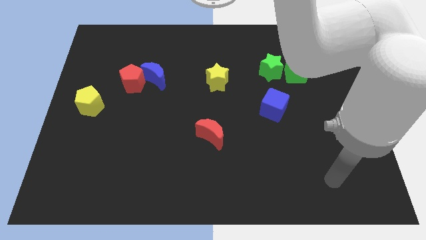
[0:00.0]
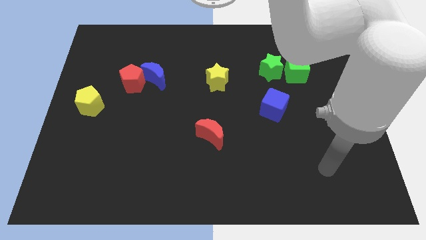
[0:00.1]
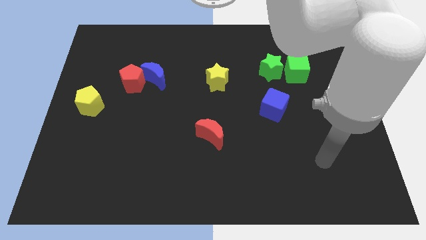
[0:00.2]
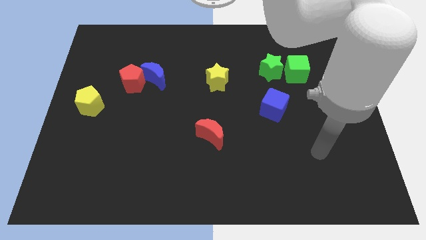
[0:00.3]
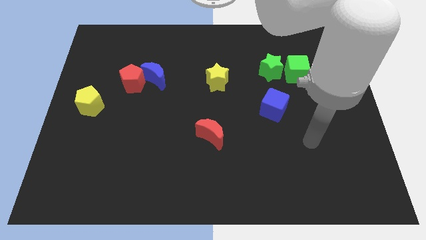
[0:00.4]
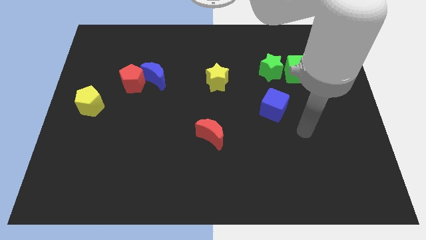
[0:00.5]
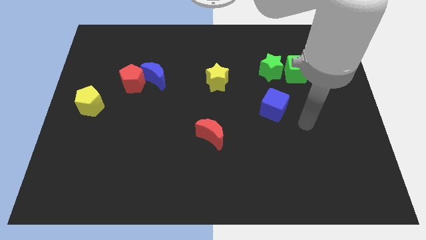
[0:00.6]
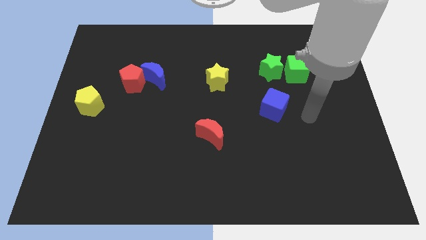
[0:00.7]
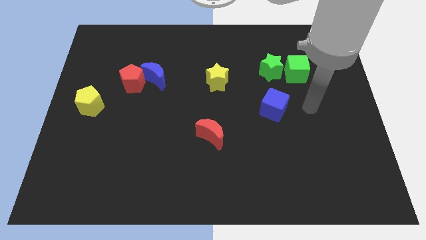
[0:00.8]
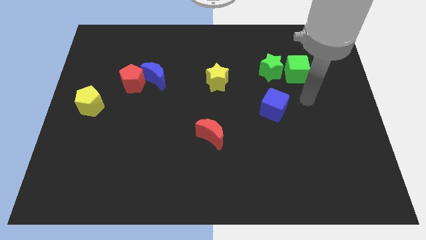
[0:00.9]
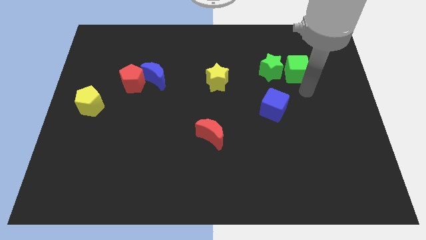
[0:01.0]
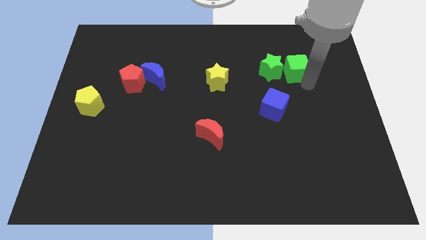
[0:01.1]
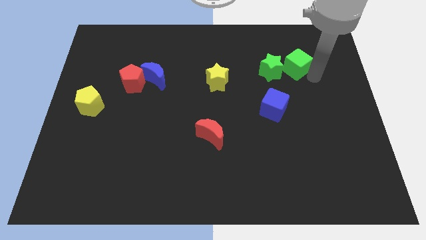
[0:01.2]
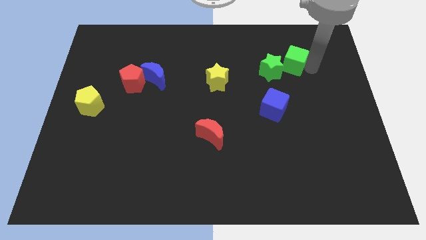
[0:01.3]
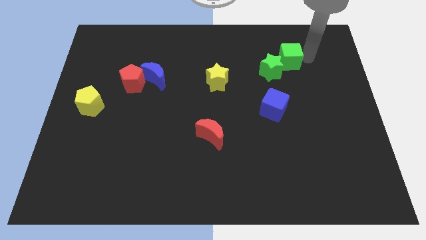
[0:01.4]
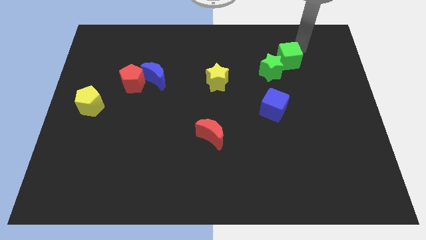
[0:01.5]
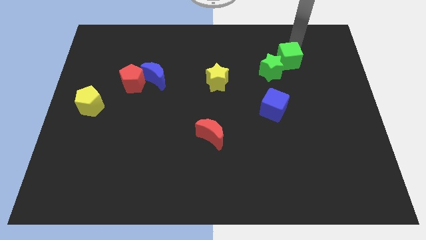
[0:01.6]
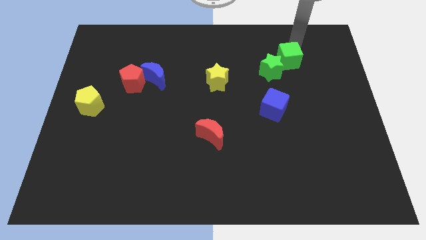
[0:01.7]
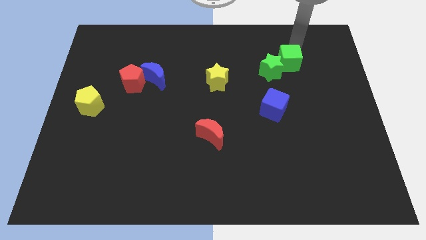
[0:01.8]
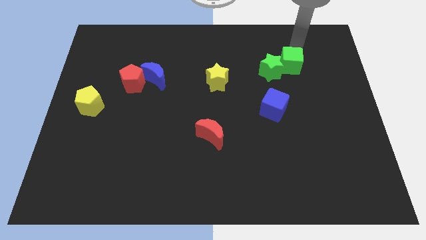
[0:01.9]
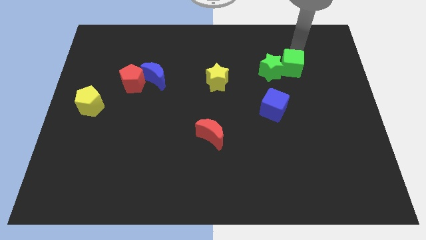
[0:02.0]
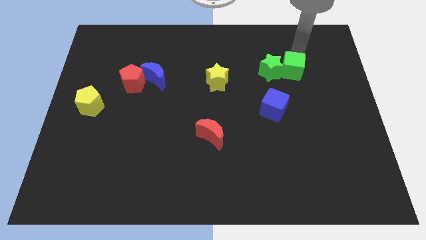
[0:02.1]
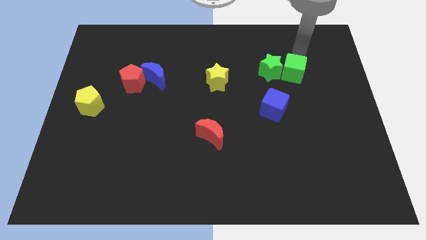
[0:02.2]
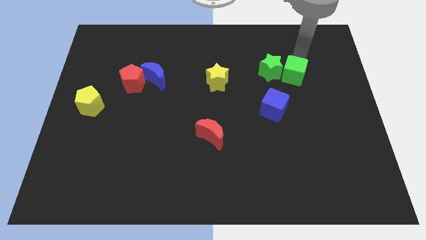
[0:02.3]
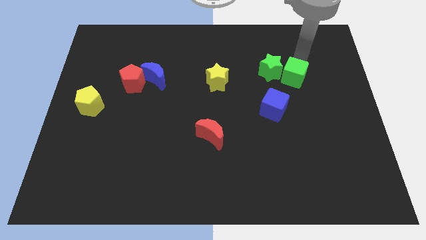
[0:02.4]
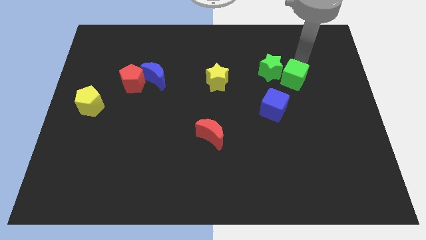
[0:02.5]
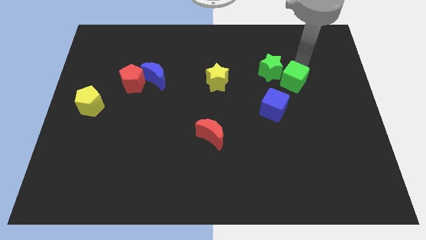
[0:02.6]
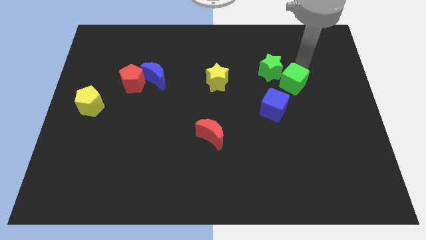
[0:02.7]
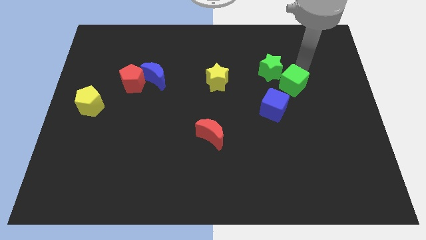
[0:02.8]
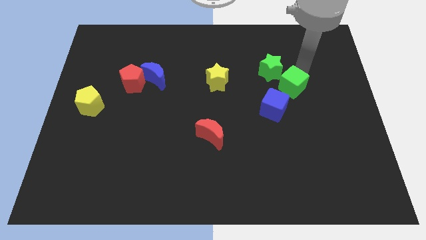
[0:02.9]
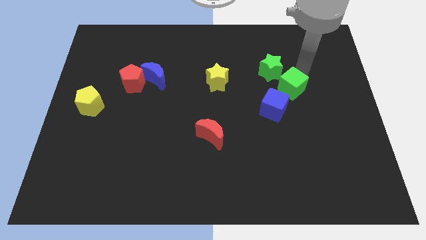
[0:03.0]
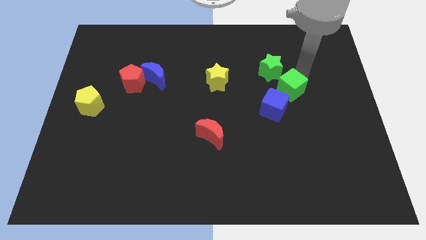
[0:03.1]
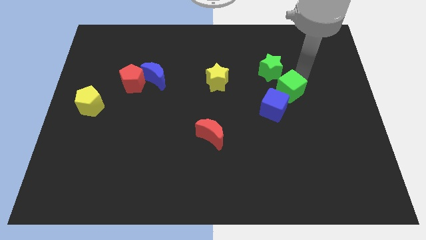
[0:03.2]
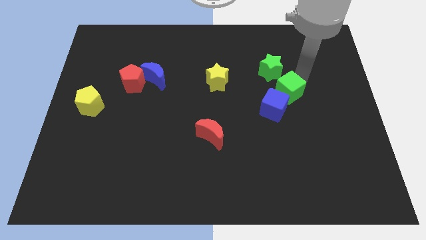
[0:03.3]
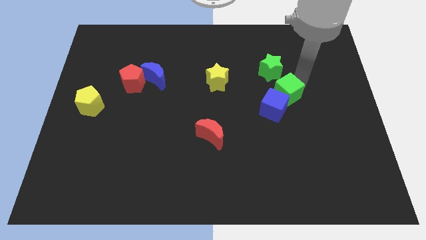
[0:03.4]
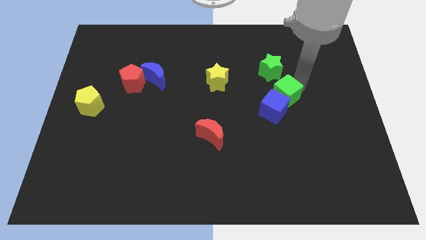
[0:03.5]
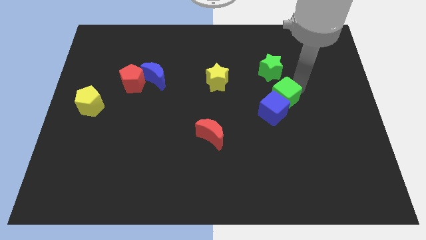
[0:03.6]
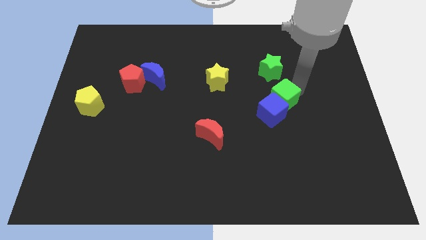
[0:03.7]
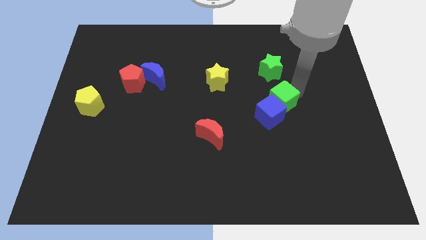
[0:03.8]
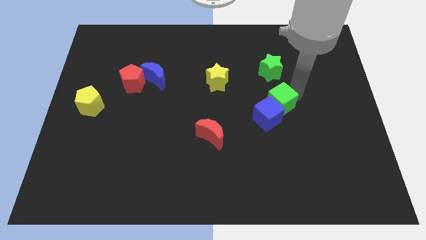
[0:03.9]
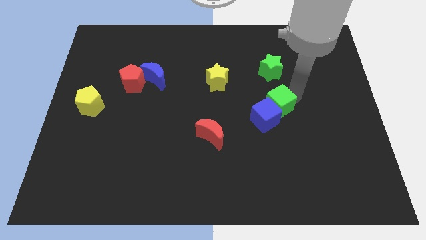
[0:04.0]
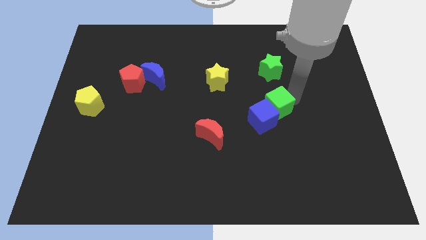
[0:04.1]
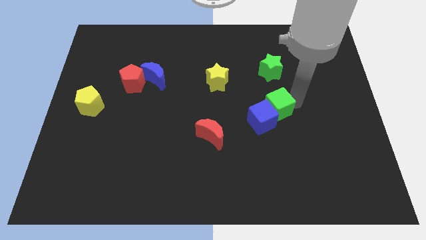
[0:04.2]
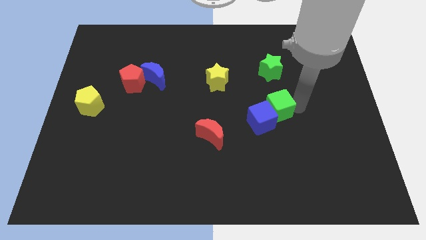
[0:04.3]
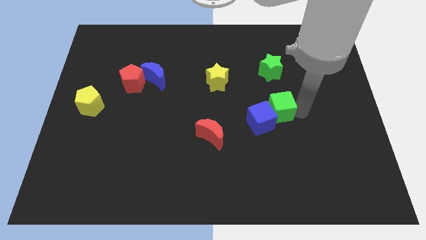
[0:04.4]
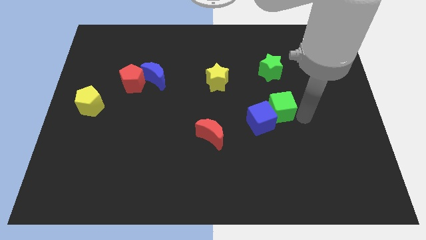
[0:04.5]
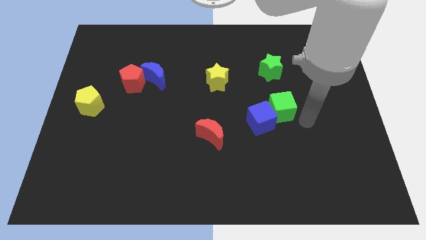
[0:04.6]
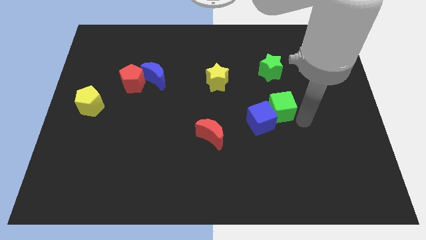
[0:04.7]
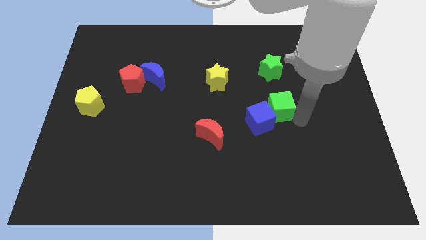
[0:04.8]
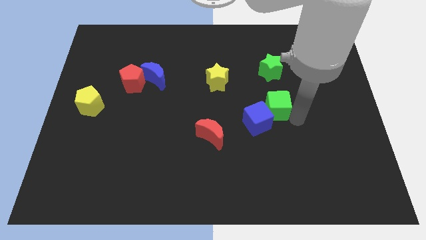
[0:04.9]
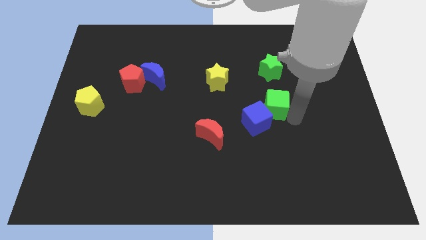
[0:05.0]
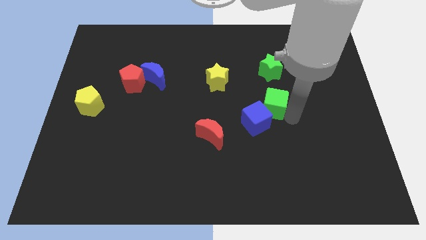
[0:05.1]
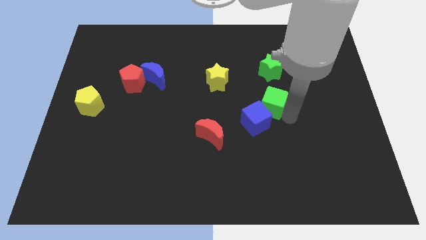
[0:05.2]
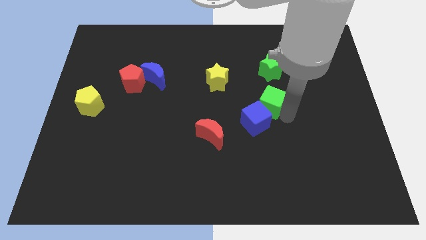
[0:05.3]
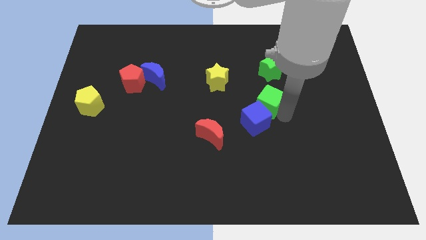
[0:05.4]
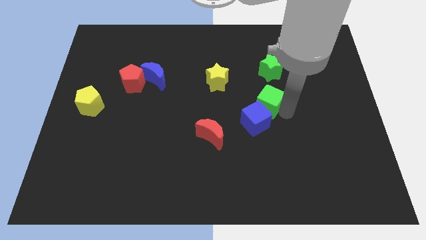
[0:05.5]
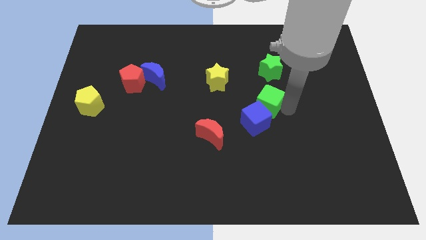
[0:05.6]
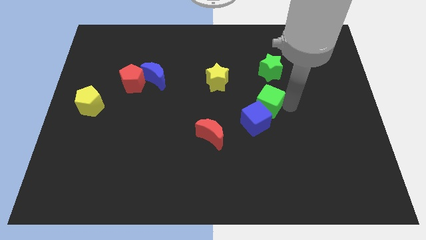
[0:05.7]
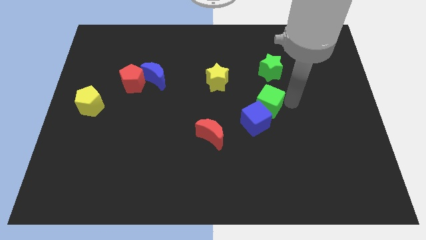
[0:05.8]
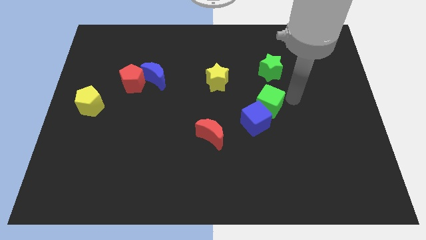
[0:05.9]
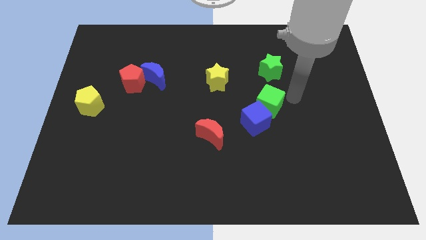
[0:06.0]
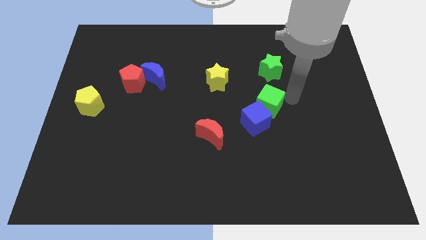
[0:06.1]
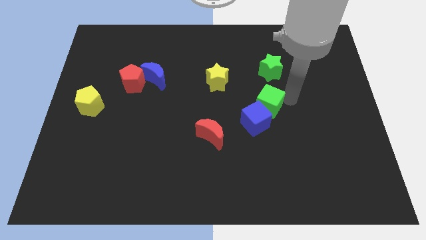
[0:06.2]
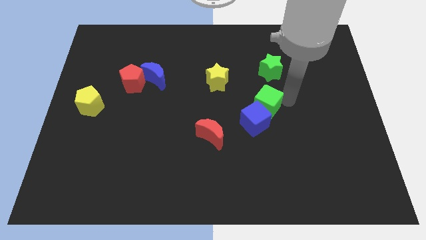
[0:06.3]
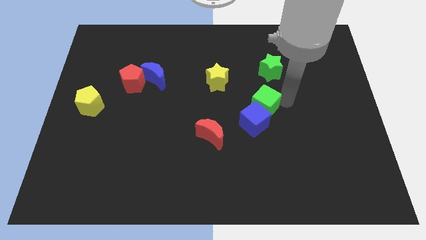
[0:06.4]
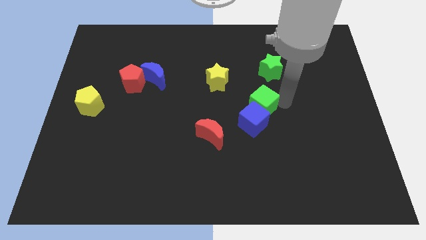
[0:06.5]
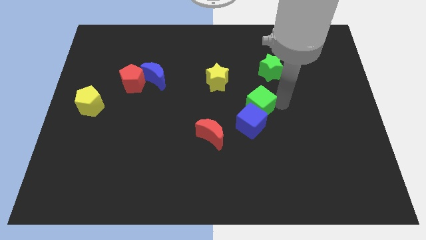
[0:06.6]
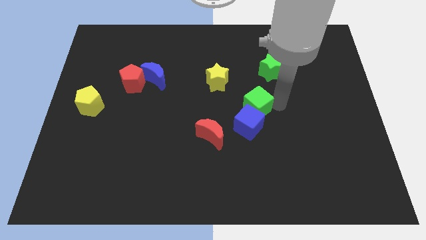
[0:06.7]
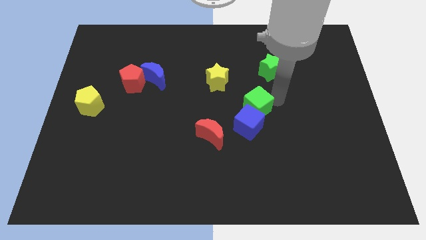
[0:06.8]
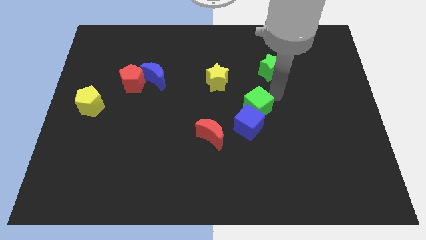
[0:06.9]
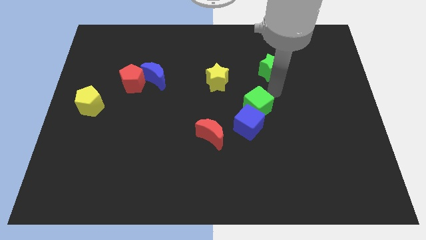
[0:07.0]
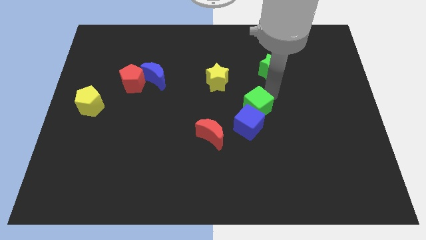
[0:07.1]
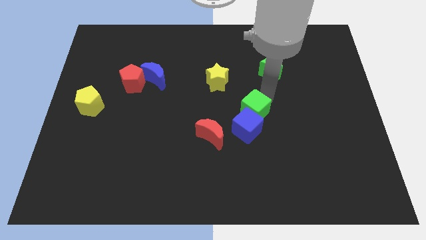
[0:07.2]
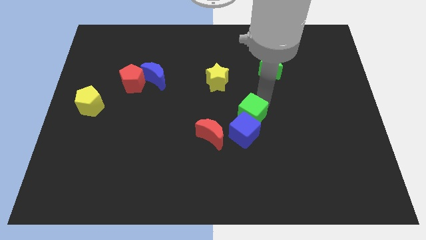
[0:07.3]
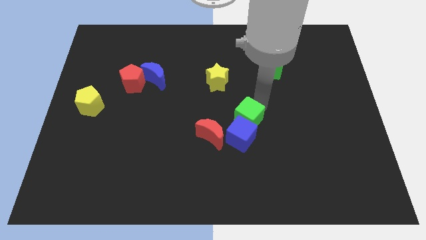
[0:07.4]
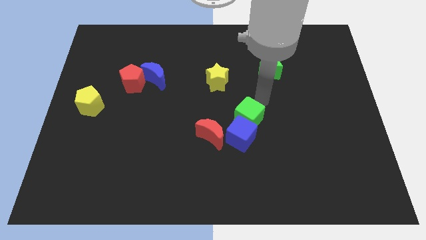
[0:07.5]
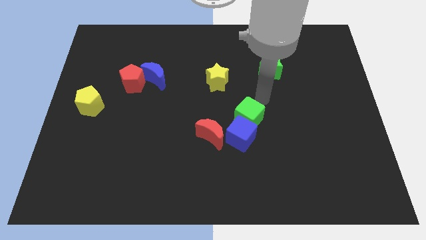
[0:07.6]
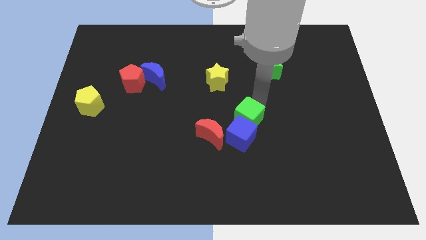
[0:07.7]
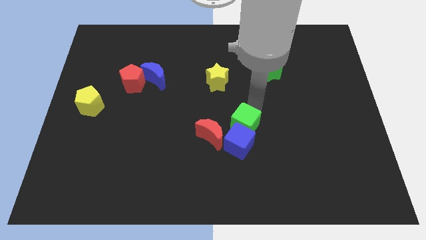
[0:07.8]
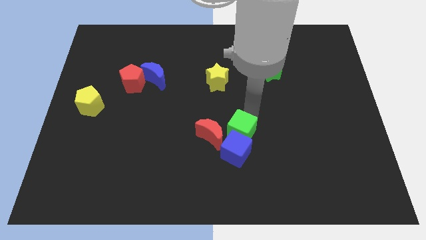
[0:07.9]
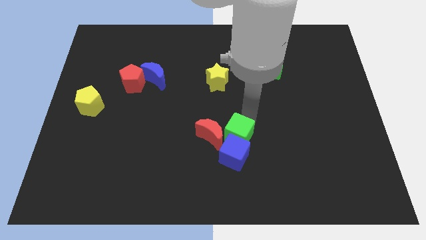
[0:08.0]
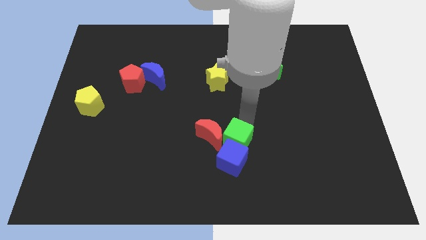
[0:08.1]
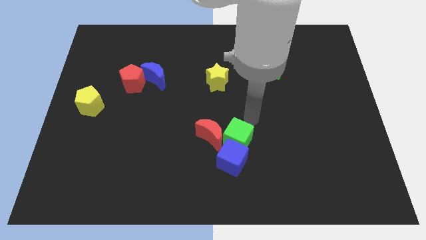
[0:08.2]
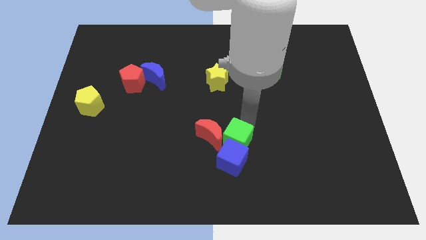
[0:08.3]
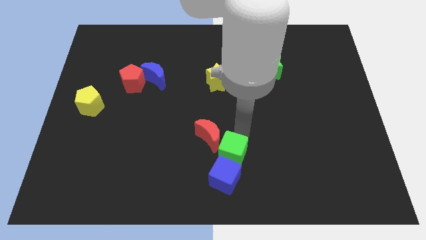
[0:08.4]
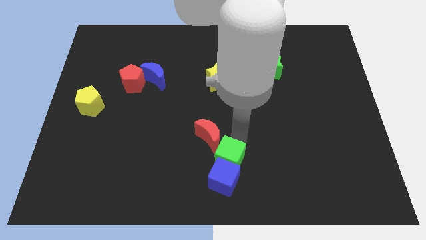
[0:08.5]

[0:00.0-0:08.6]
push the green cube to the bottom side of the red moon
